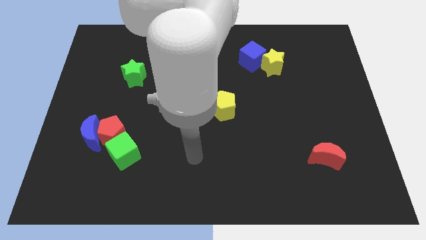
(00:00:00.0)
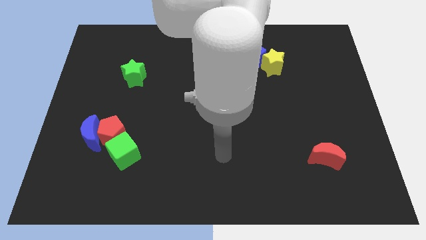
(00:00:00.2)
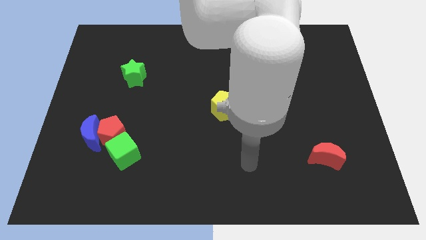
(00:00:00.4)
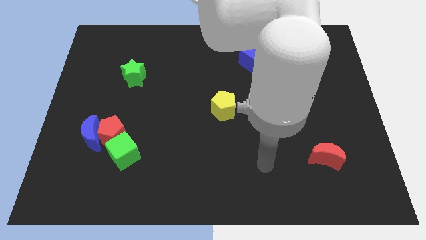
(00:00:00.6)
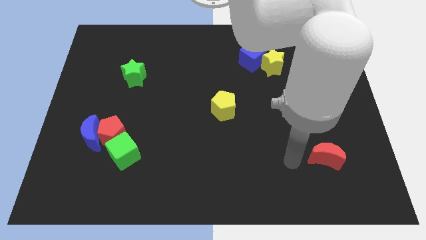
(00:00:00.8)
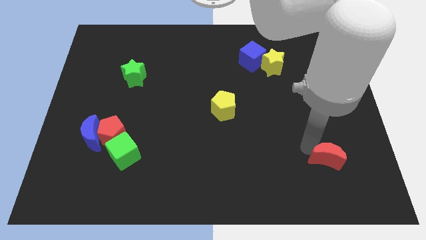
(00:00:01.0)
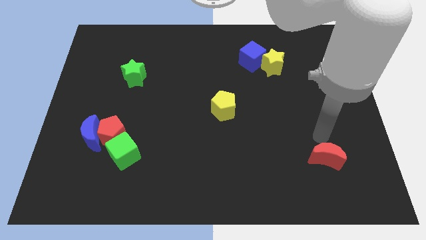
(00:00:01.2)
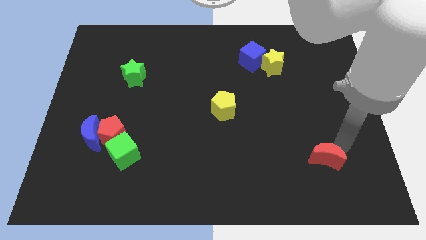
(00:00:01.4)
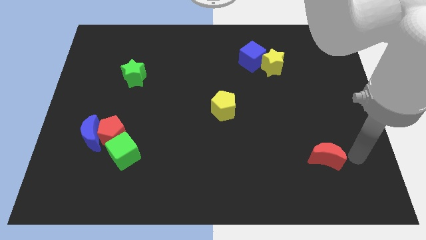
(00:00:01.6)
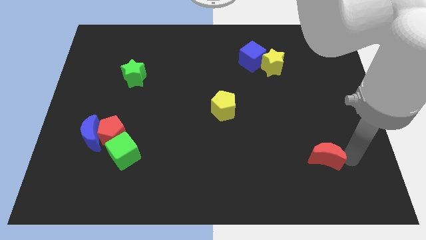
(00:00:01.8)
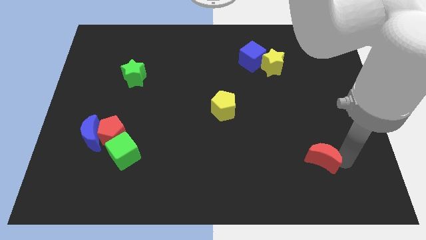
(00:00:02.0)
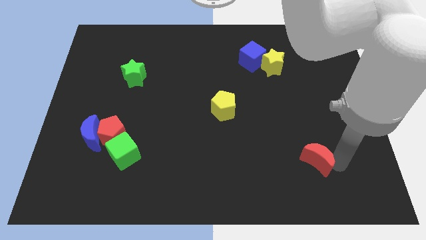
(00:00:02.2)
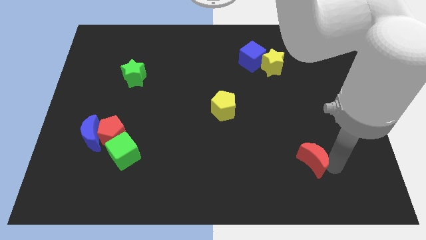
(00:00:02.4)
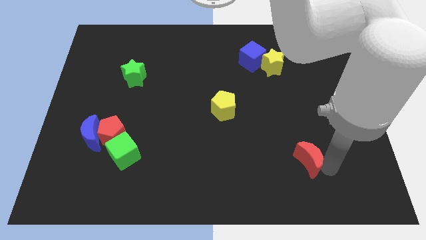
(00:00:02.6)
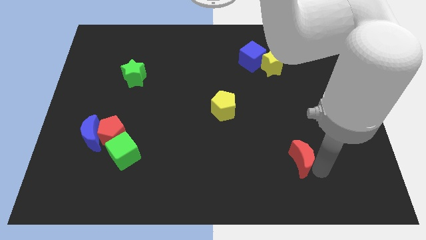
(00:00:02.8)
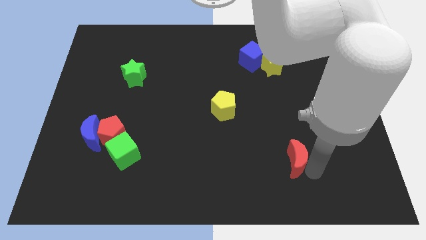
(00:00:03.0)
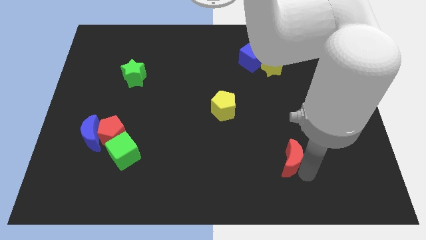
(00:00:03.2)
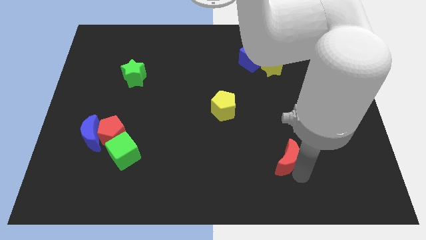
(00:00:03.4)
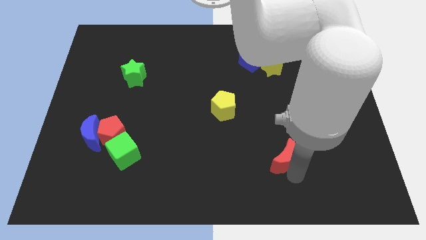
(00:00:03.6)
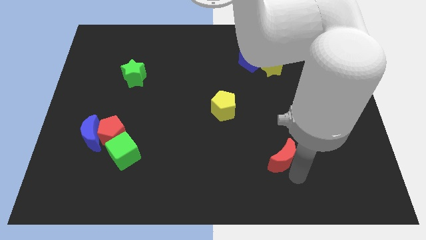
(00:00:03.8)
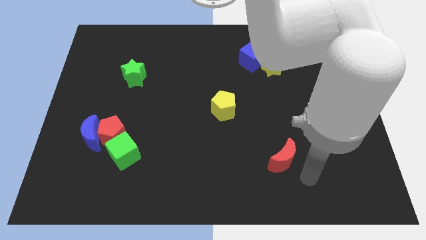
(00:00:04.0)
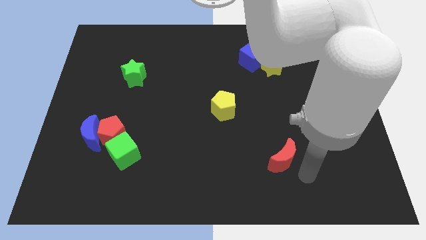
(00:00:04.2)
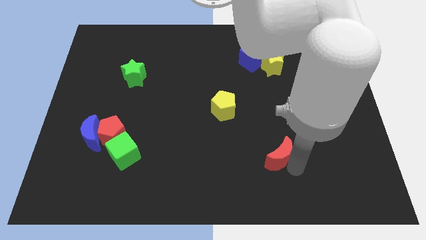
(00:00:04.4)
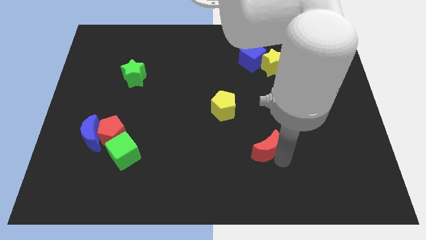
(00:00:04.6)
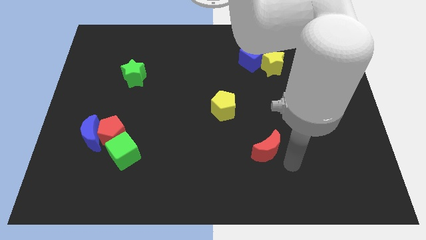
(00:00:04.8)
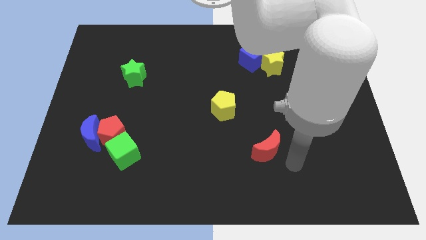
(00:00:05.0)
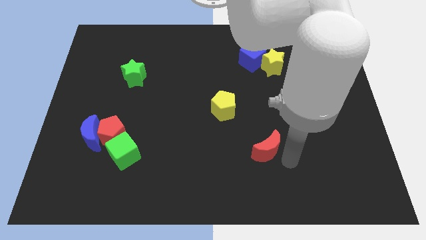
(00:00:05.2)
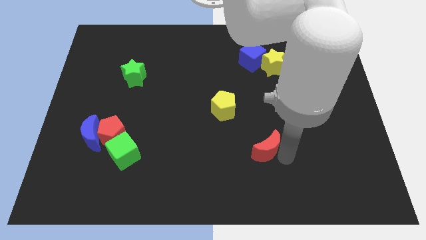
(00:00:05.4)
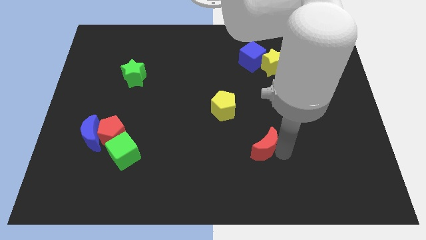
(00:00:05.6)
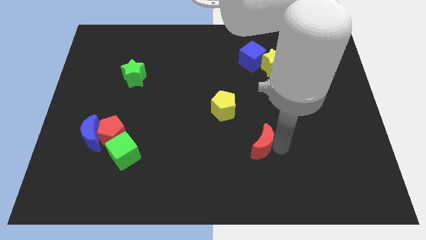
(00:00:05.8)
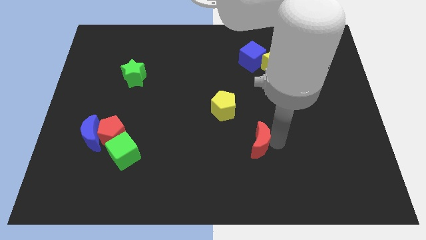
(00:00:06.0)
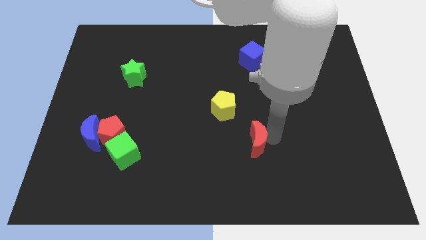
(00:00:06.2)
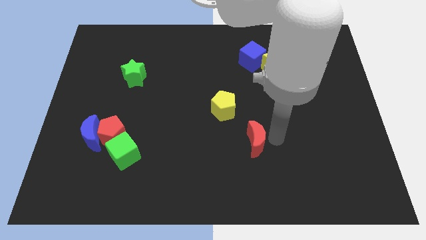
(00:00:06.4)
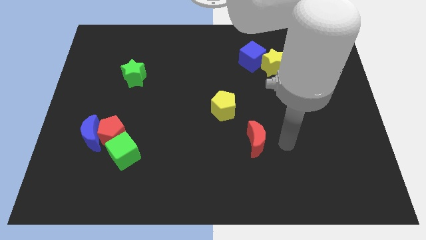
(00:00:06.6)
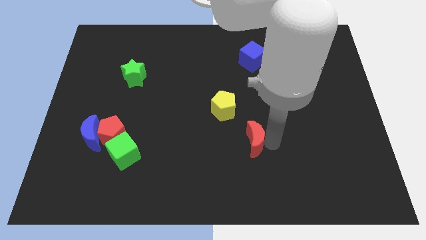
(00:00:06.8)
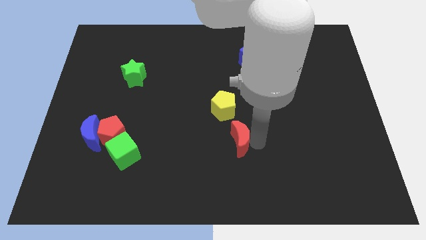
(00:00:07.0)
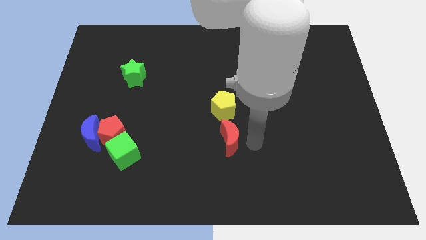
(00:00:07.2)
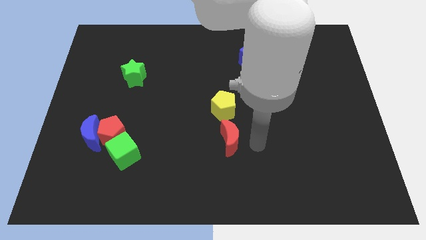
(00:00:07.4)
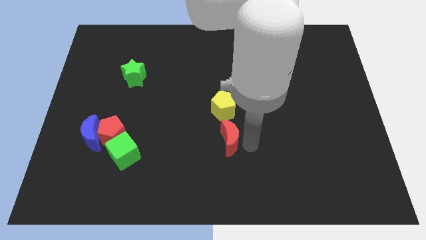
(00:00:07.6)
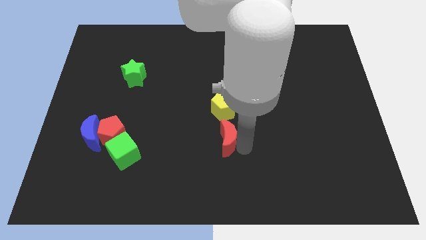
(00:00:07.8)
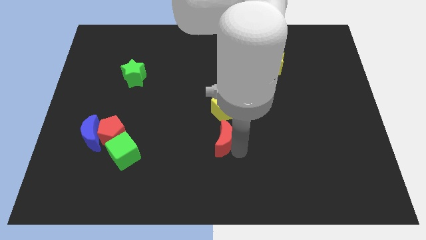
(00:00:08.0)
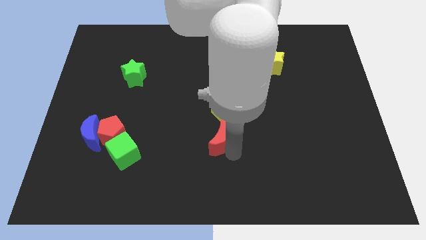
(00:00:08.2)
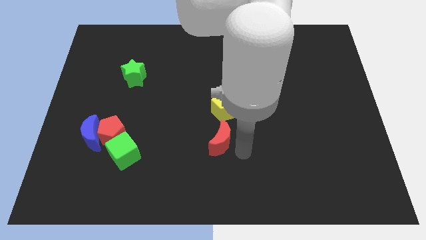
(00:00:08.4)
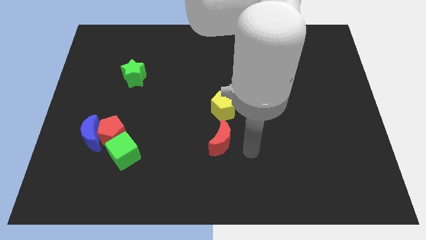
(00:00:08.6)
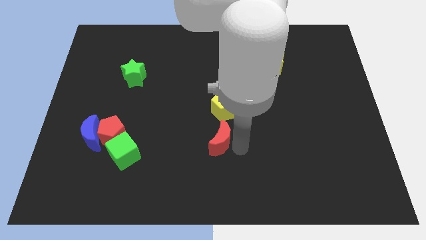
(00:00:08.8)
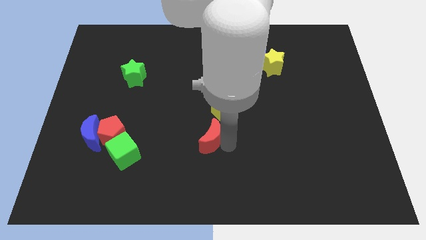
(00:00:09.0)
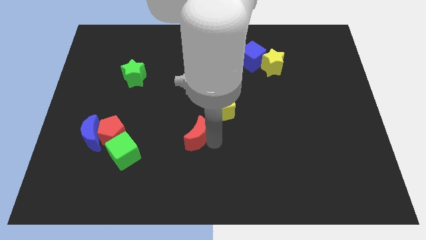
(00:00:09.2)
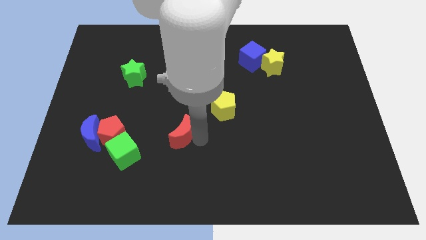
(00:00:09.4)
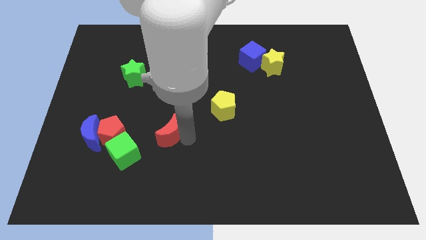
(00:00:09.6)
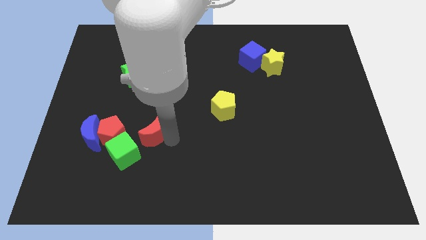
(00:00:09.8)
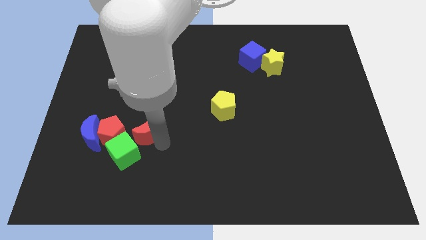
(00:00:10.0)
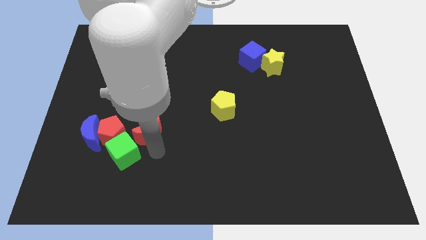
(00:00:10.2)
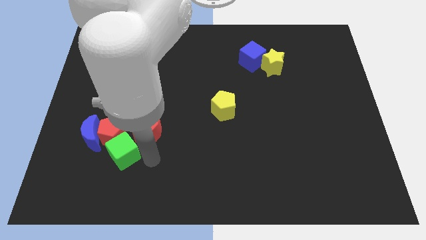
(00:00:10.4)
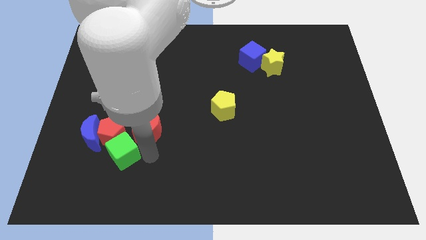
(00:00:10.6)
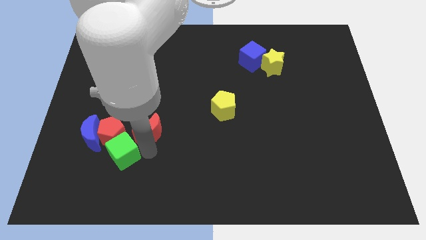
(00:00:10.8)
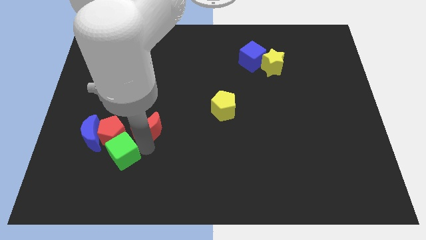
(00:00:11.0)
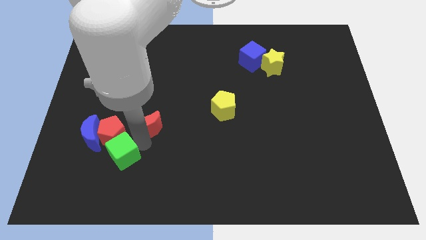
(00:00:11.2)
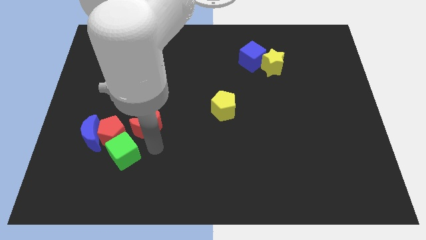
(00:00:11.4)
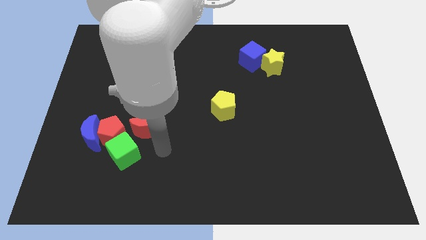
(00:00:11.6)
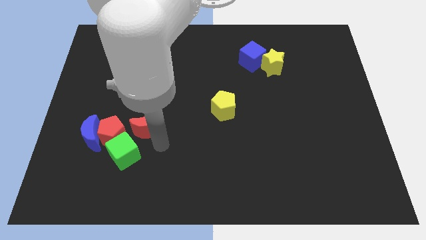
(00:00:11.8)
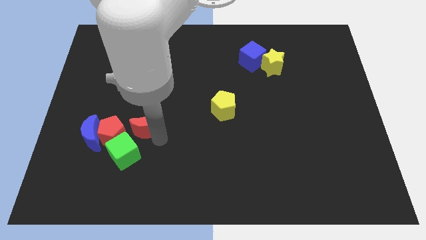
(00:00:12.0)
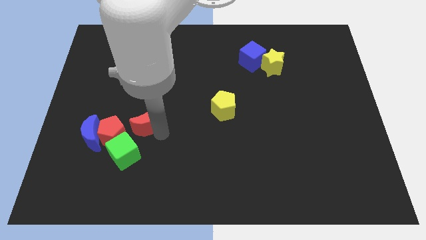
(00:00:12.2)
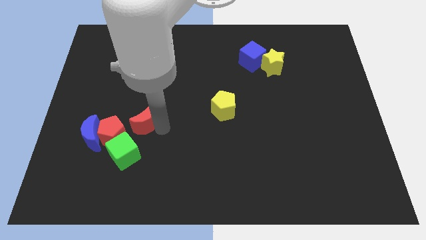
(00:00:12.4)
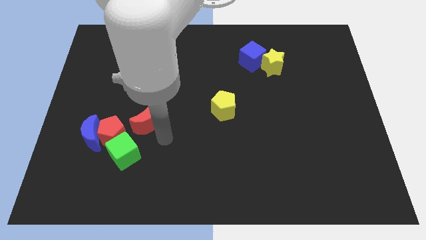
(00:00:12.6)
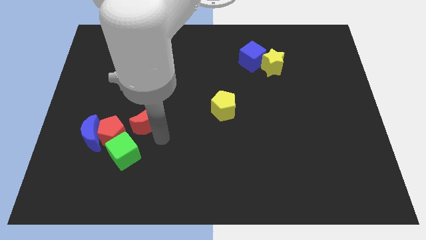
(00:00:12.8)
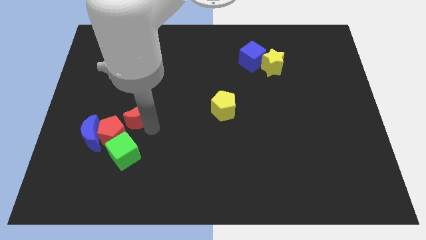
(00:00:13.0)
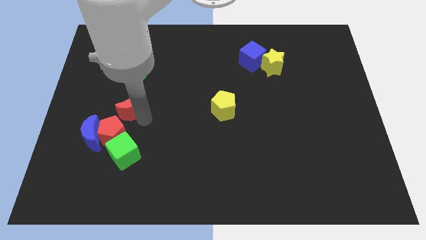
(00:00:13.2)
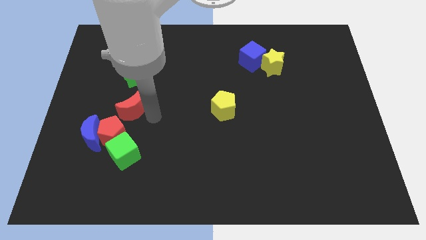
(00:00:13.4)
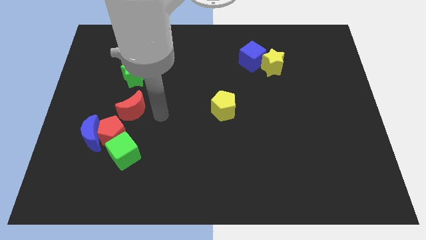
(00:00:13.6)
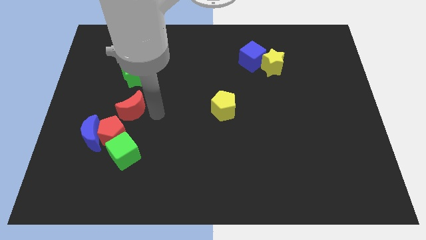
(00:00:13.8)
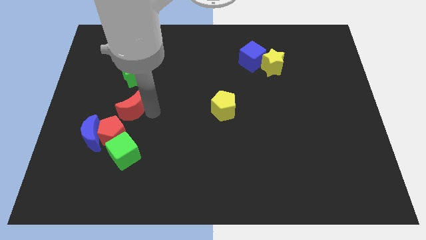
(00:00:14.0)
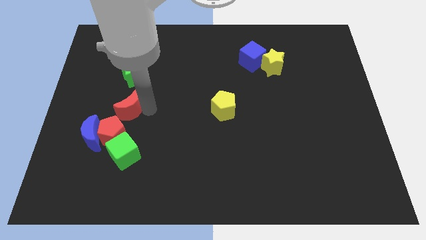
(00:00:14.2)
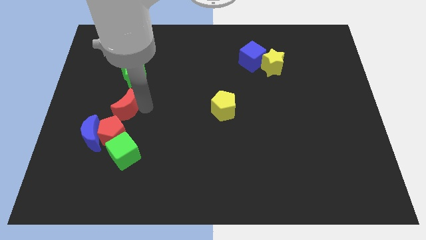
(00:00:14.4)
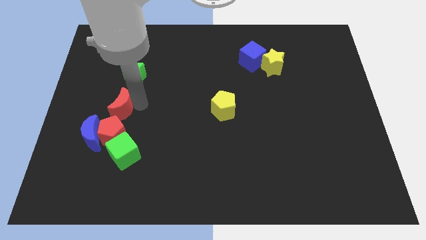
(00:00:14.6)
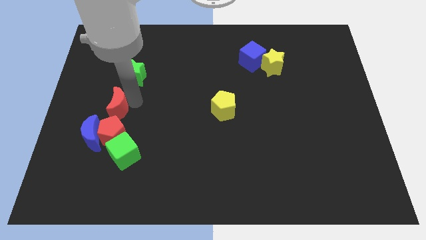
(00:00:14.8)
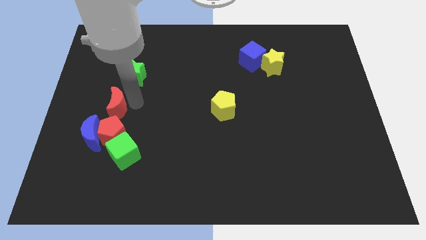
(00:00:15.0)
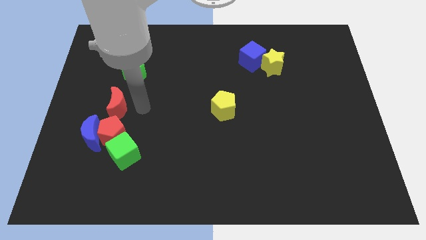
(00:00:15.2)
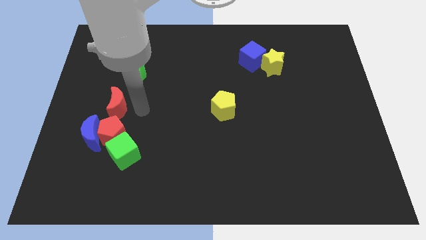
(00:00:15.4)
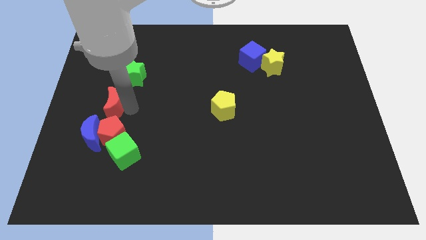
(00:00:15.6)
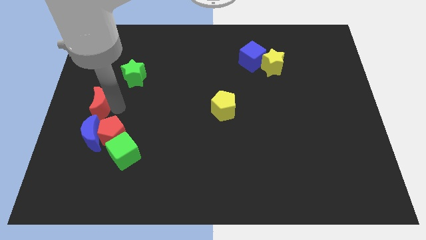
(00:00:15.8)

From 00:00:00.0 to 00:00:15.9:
slide the red moon to the center left
